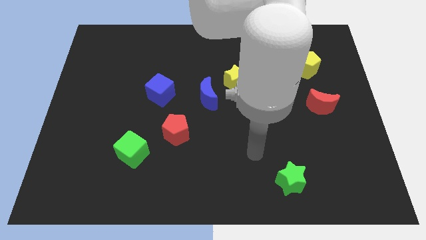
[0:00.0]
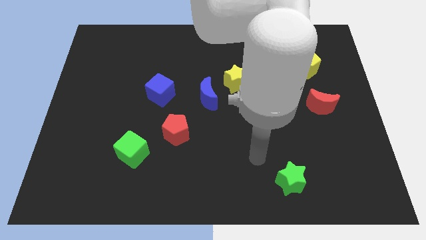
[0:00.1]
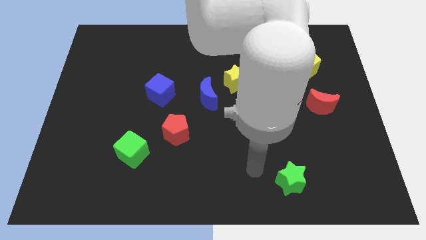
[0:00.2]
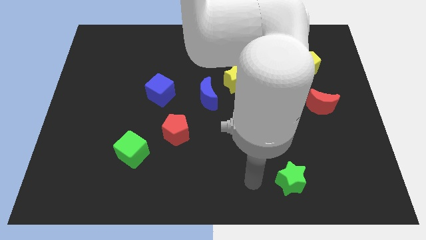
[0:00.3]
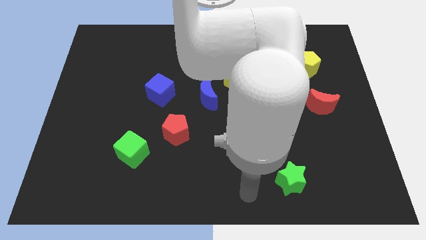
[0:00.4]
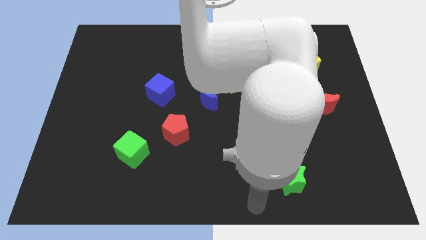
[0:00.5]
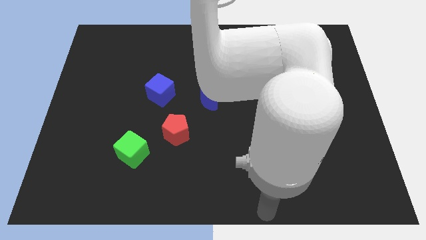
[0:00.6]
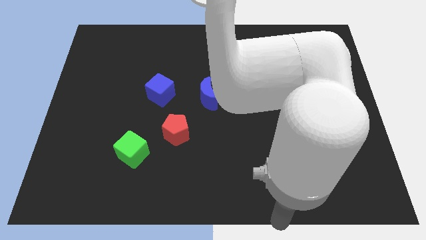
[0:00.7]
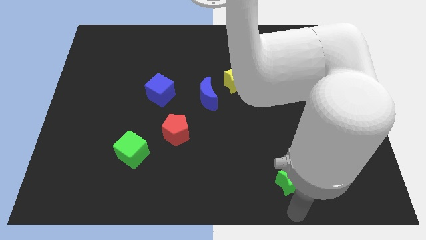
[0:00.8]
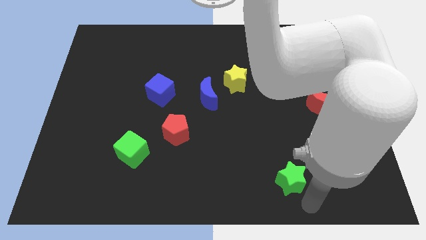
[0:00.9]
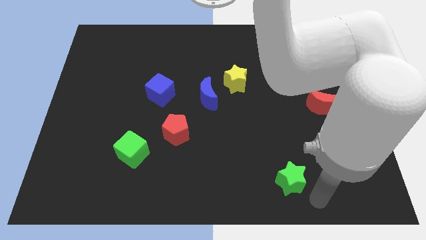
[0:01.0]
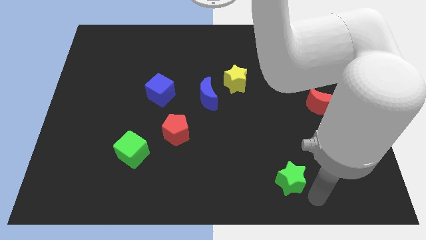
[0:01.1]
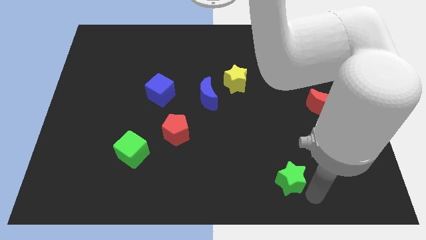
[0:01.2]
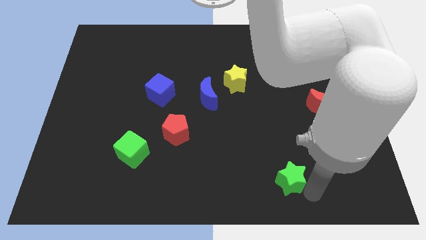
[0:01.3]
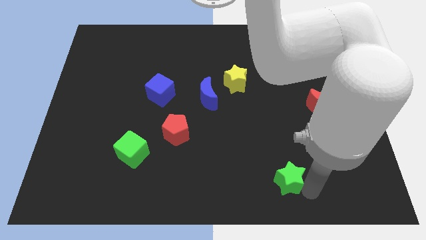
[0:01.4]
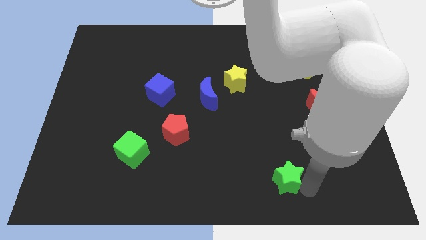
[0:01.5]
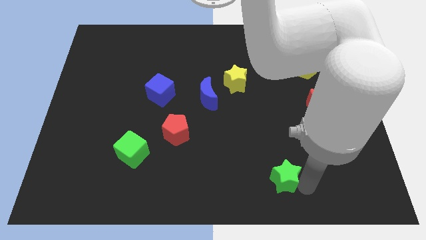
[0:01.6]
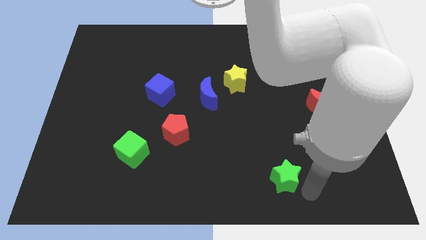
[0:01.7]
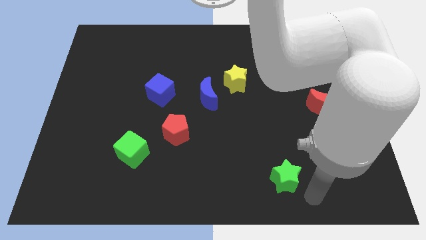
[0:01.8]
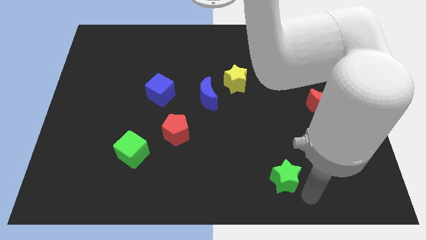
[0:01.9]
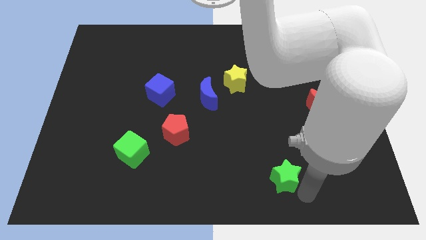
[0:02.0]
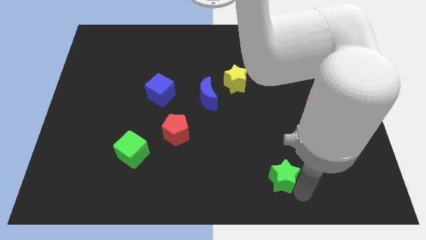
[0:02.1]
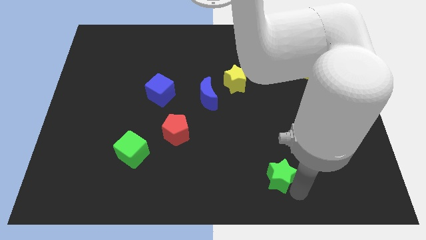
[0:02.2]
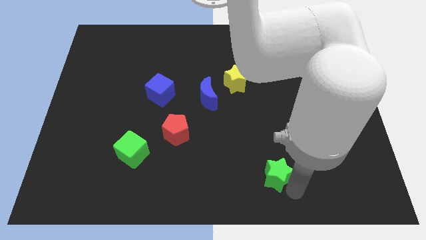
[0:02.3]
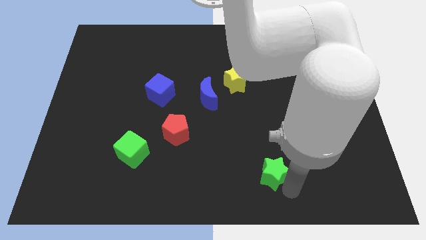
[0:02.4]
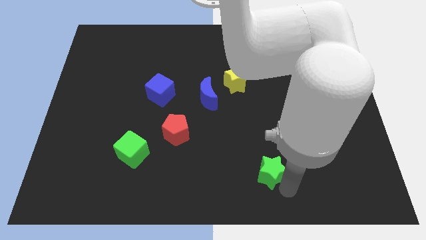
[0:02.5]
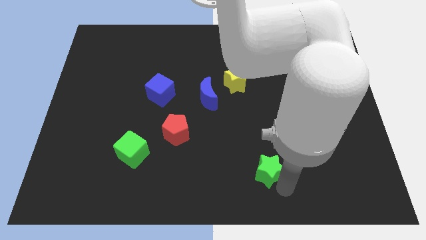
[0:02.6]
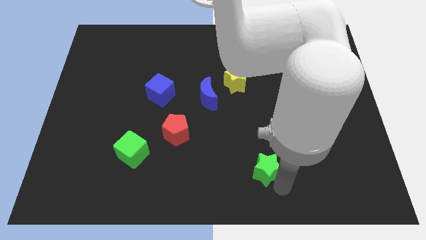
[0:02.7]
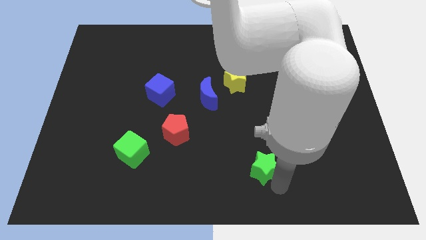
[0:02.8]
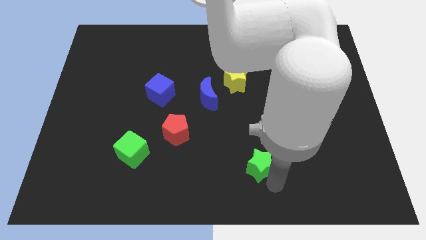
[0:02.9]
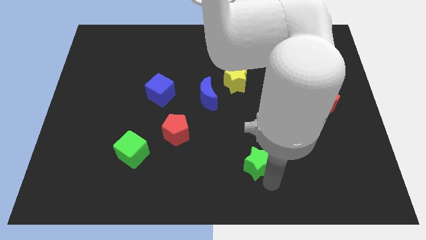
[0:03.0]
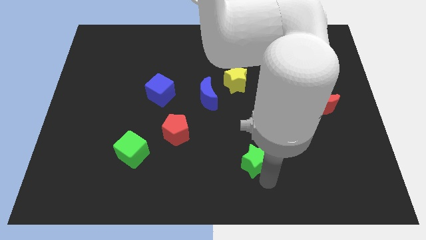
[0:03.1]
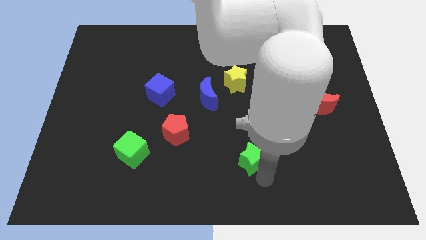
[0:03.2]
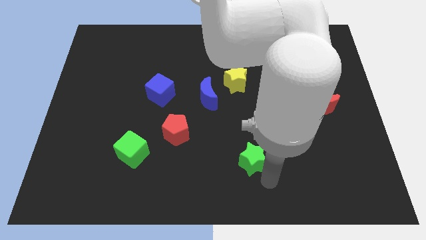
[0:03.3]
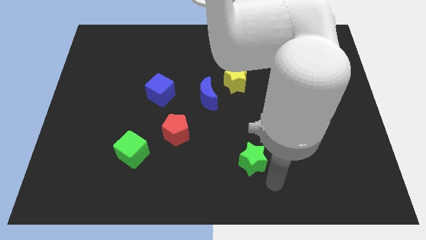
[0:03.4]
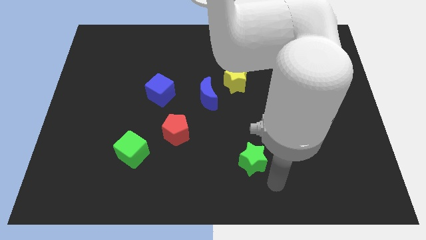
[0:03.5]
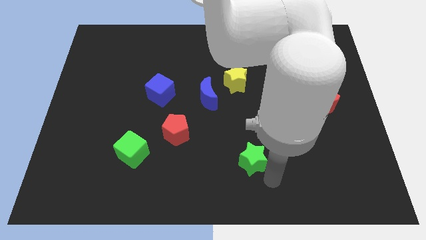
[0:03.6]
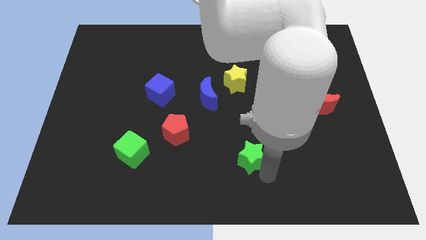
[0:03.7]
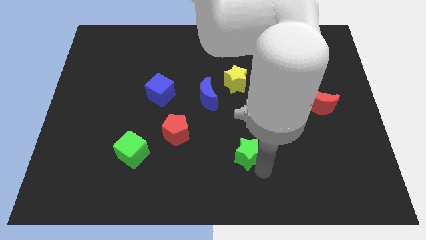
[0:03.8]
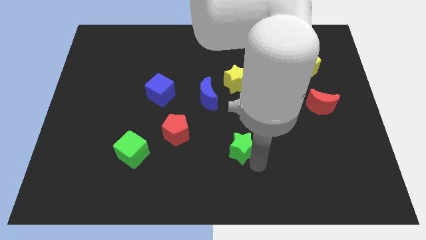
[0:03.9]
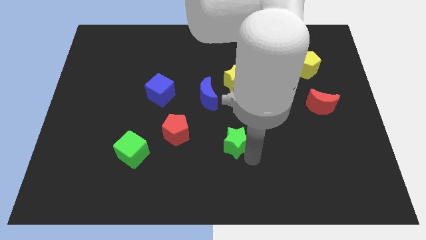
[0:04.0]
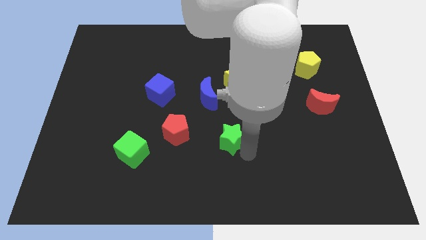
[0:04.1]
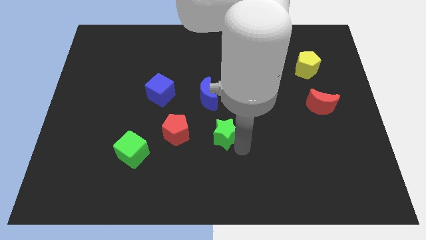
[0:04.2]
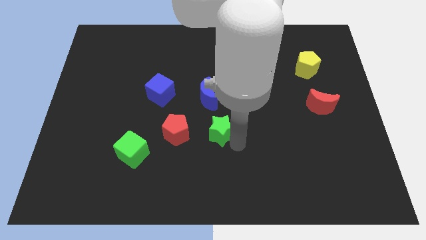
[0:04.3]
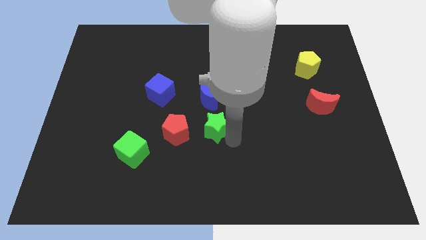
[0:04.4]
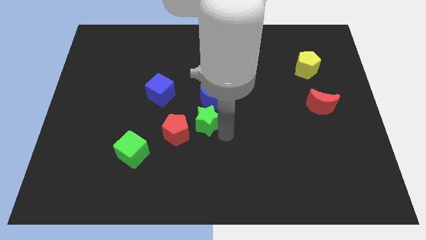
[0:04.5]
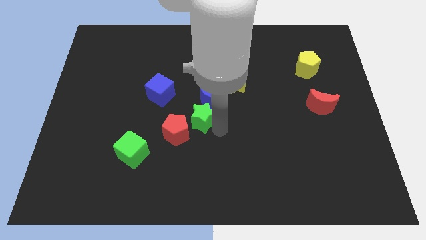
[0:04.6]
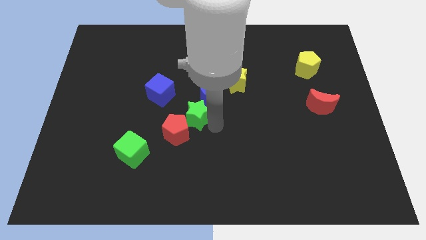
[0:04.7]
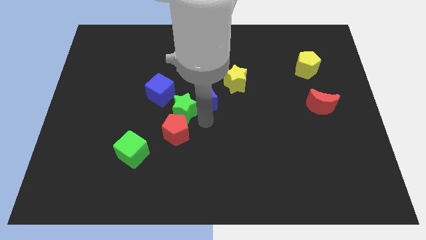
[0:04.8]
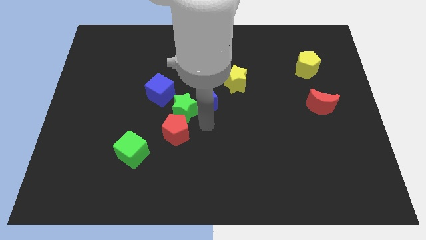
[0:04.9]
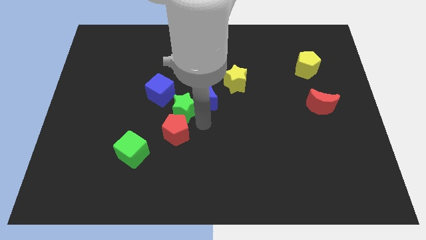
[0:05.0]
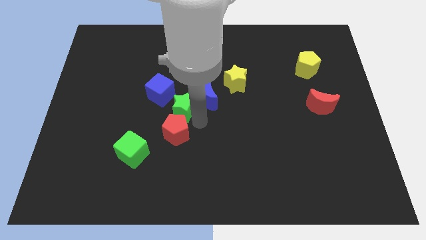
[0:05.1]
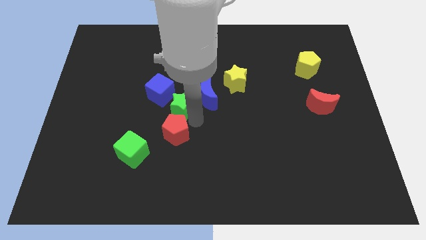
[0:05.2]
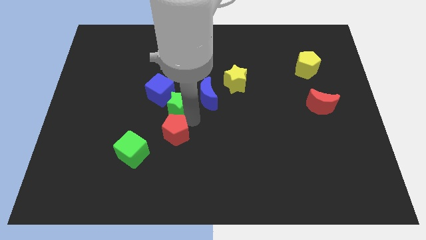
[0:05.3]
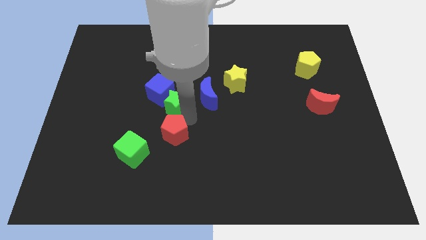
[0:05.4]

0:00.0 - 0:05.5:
put the green star close to the blue cube

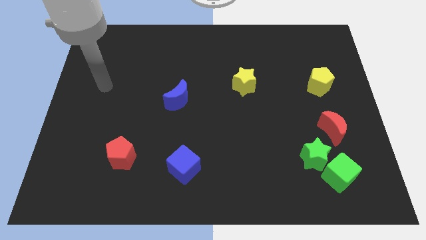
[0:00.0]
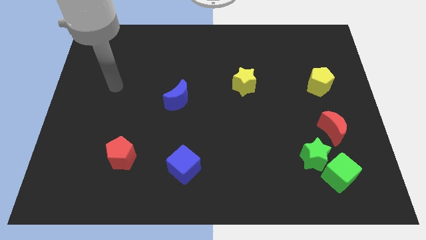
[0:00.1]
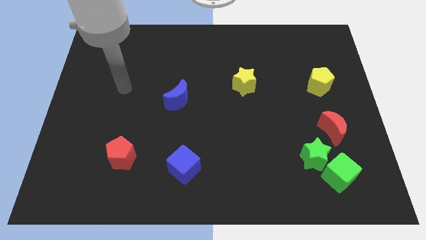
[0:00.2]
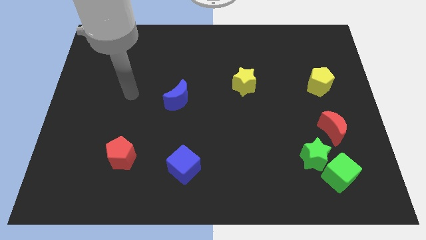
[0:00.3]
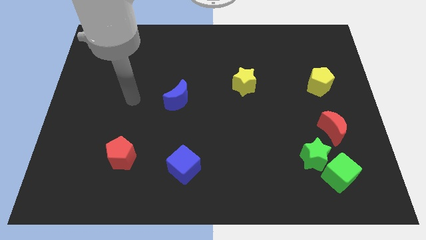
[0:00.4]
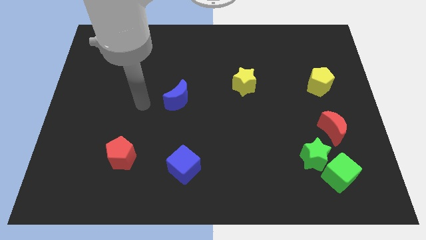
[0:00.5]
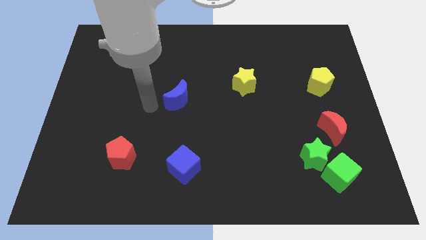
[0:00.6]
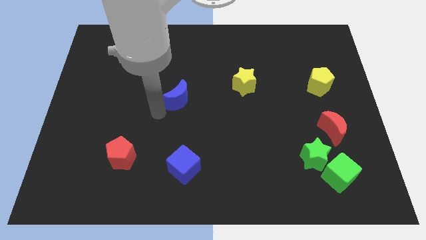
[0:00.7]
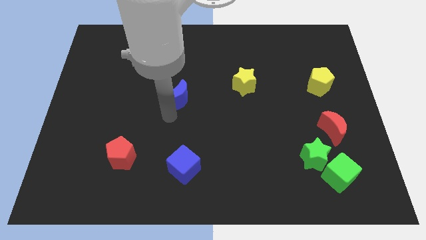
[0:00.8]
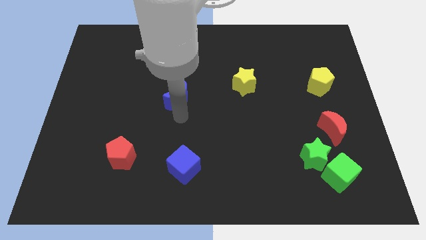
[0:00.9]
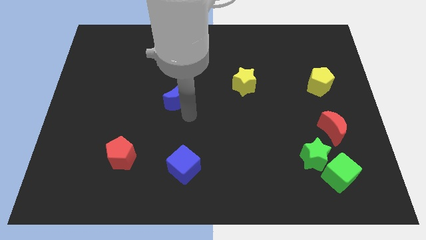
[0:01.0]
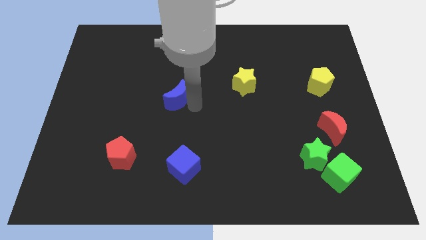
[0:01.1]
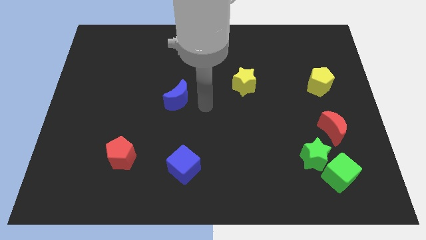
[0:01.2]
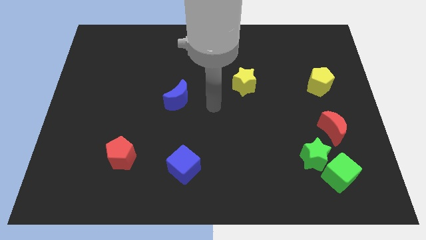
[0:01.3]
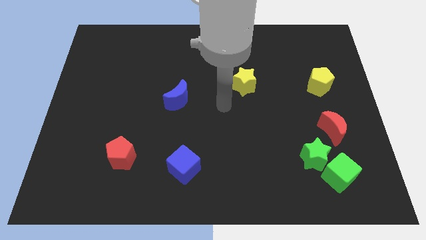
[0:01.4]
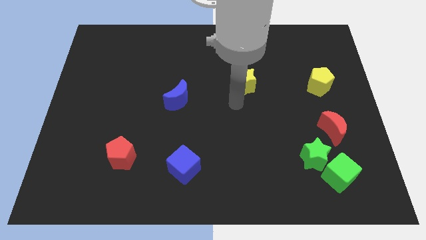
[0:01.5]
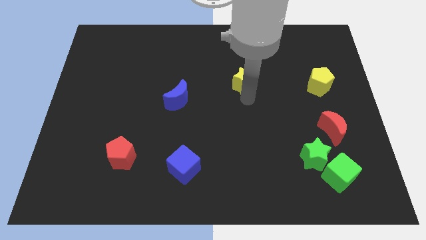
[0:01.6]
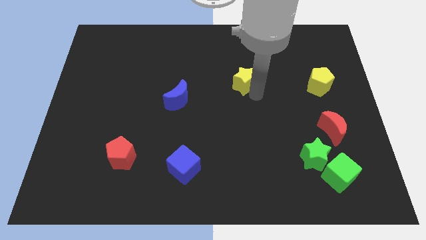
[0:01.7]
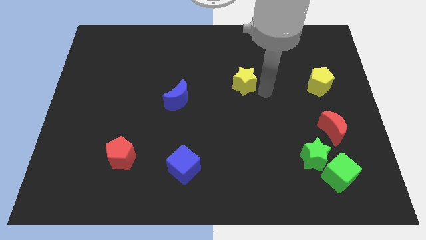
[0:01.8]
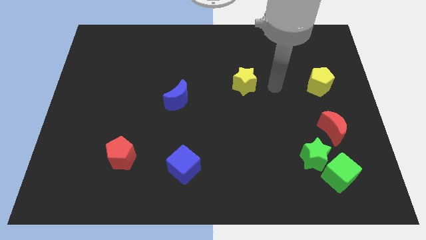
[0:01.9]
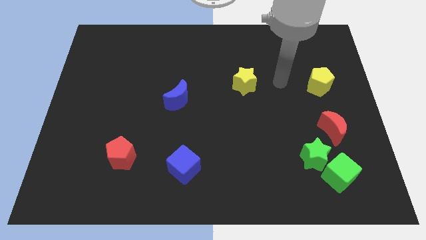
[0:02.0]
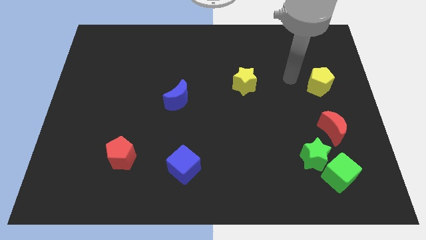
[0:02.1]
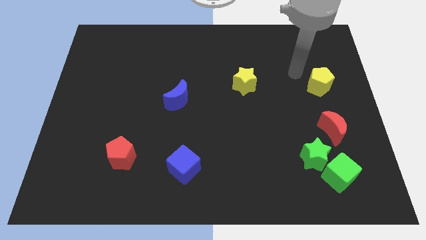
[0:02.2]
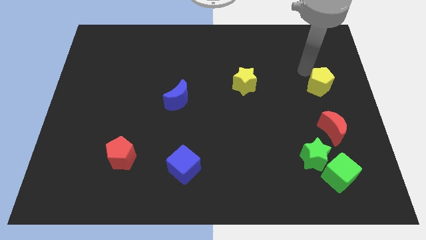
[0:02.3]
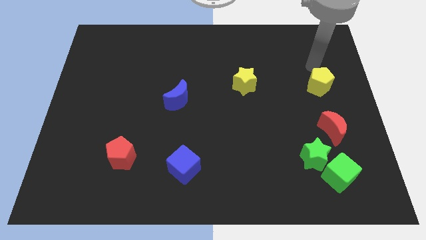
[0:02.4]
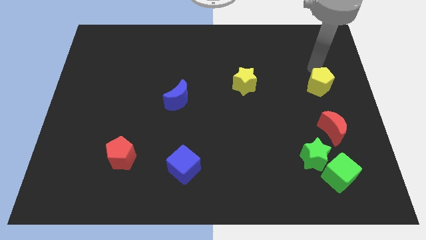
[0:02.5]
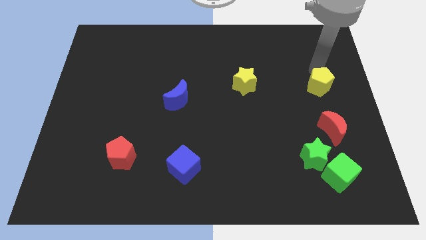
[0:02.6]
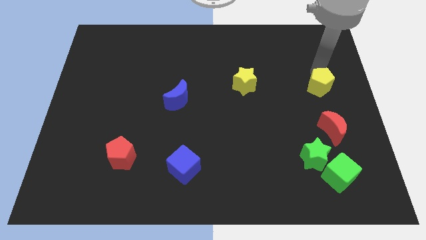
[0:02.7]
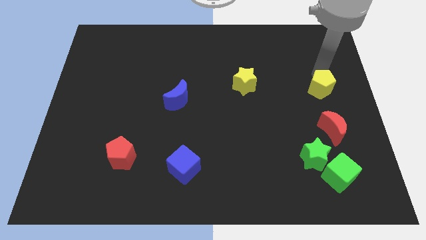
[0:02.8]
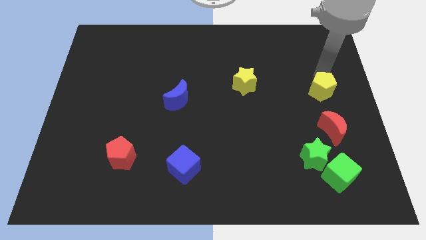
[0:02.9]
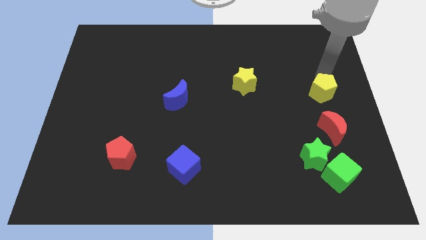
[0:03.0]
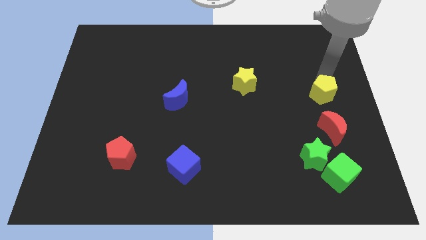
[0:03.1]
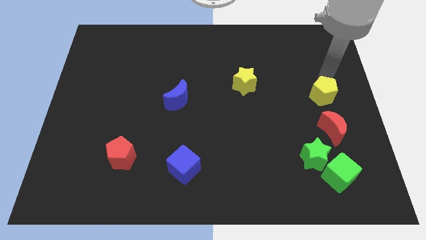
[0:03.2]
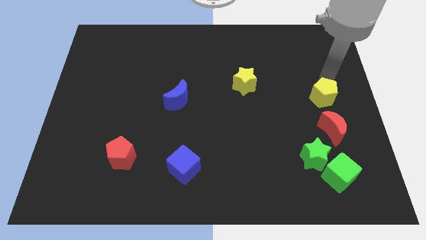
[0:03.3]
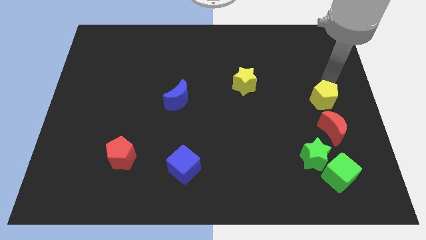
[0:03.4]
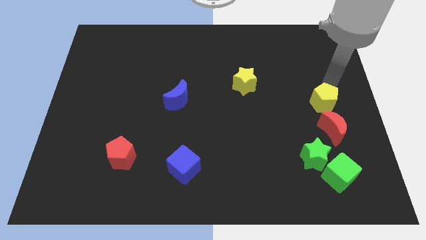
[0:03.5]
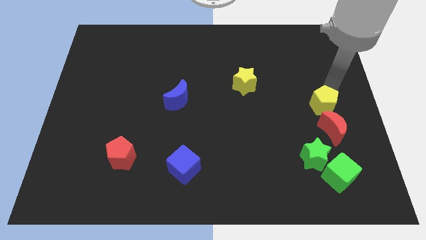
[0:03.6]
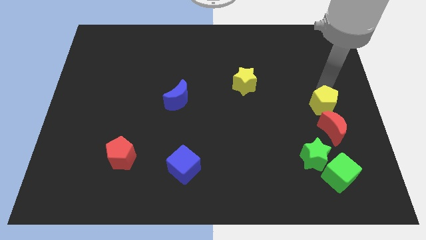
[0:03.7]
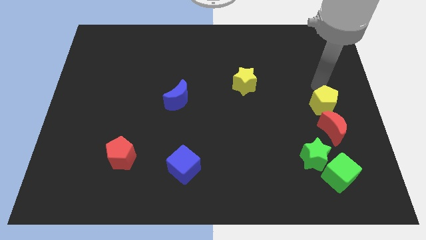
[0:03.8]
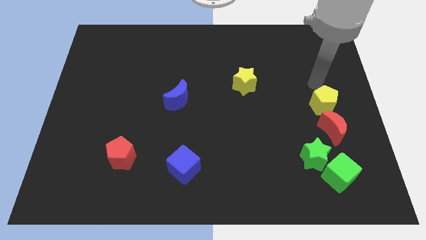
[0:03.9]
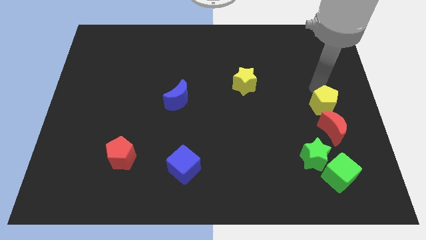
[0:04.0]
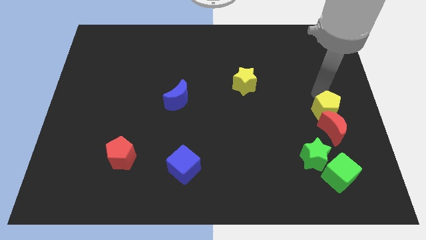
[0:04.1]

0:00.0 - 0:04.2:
push the yellow pentagon close to the red moon
